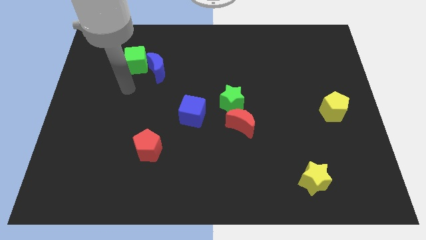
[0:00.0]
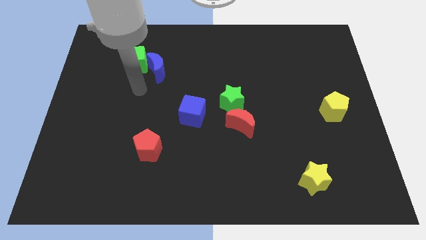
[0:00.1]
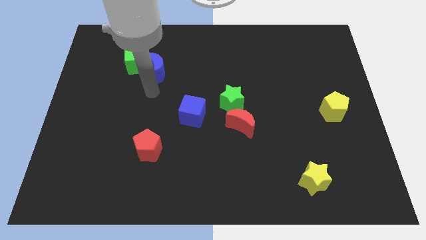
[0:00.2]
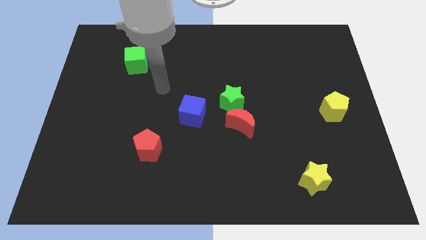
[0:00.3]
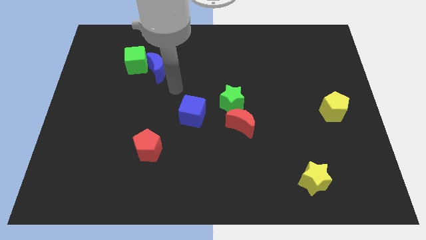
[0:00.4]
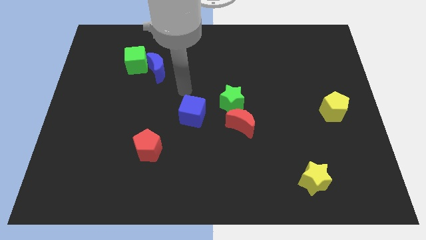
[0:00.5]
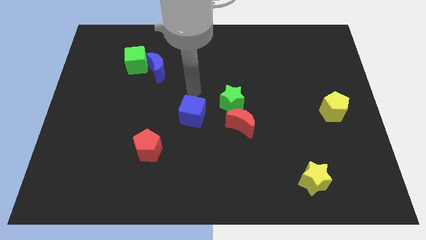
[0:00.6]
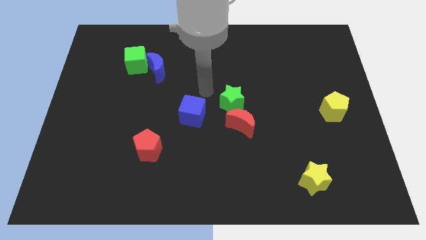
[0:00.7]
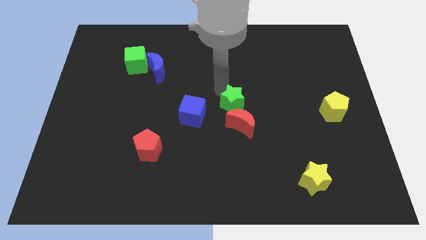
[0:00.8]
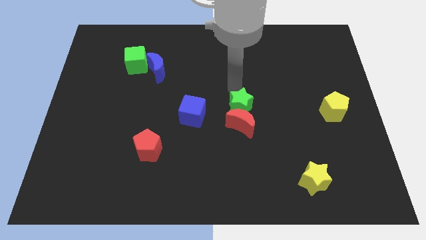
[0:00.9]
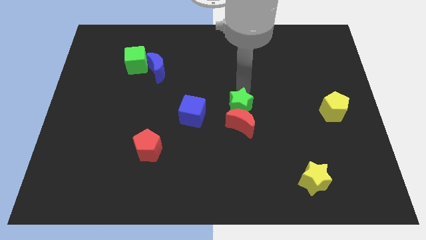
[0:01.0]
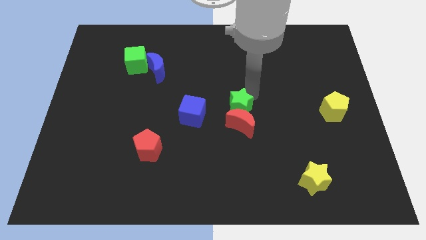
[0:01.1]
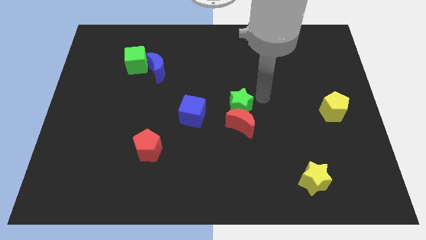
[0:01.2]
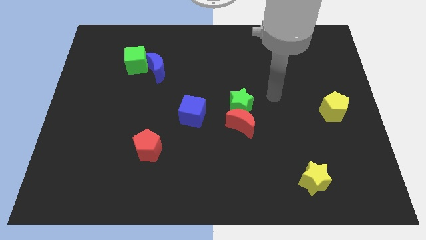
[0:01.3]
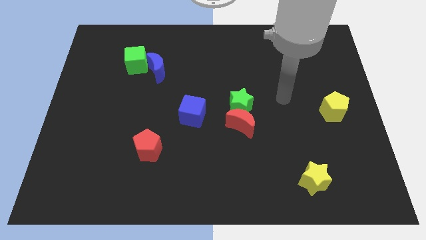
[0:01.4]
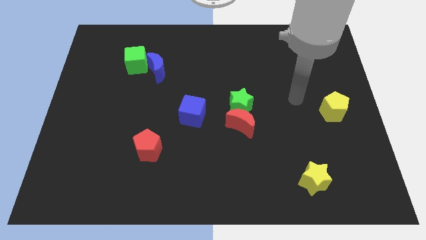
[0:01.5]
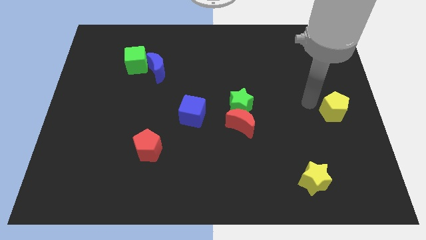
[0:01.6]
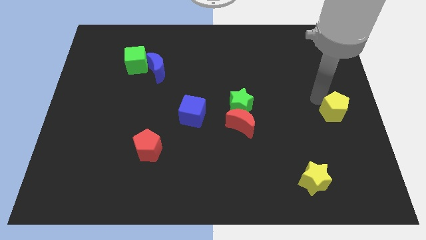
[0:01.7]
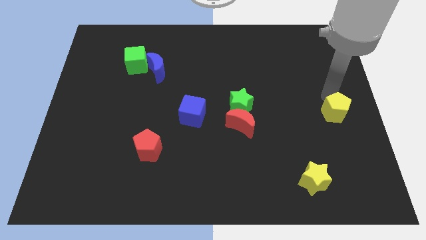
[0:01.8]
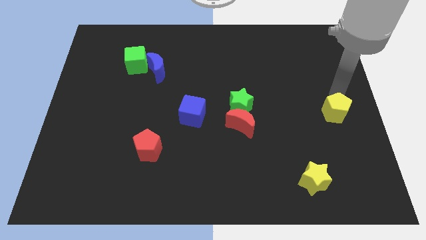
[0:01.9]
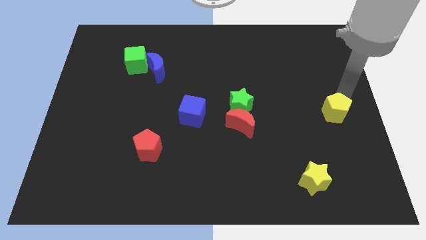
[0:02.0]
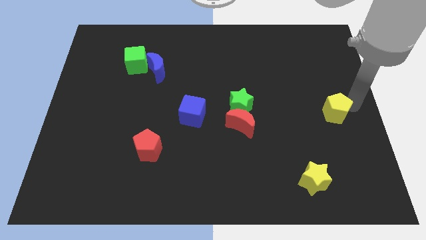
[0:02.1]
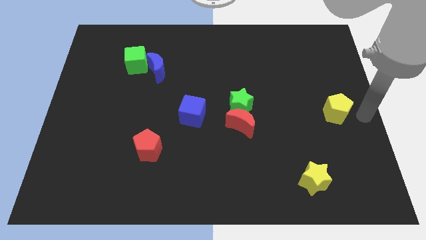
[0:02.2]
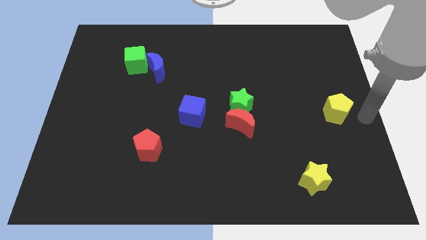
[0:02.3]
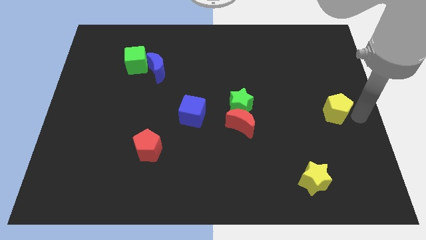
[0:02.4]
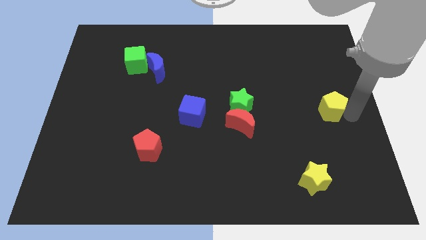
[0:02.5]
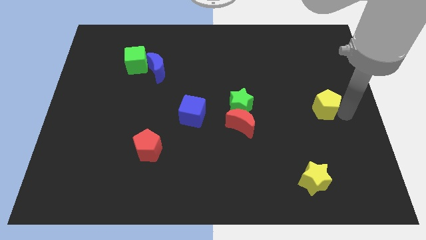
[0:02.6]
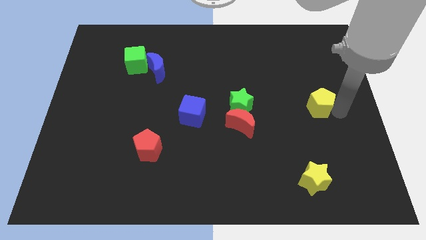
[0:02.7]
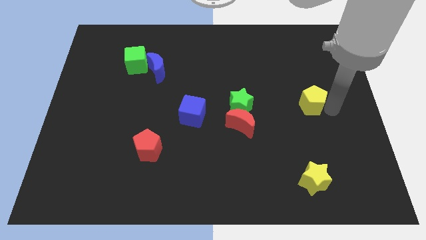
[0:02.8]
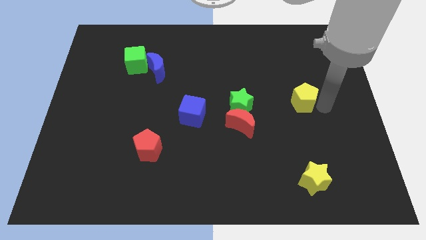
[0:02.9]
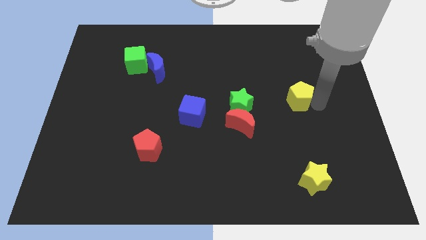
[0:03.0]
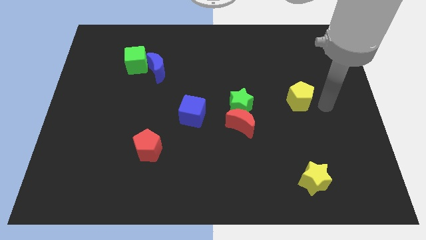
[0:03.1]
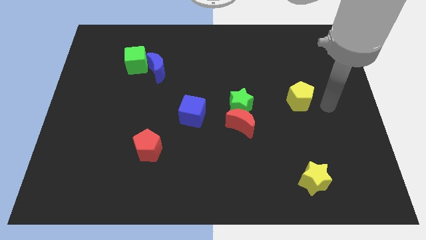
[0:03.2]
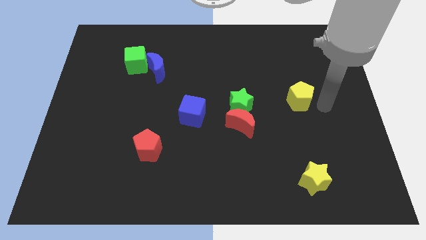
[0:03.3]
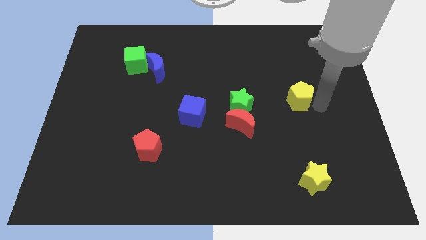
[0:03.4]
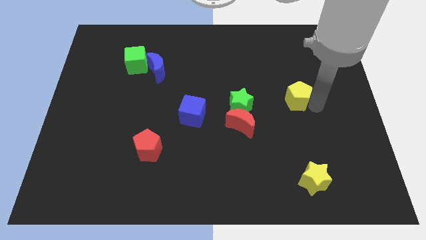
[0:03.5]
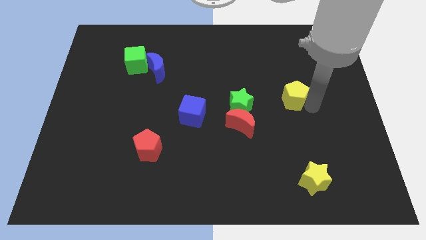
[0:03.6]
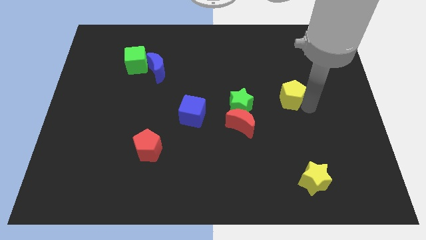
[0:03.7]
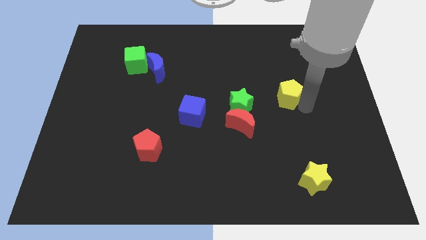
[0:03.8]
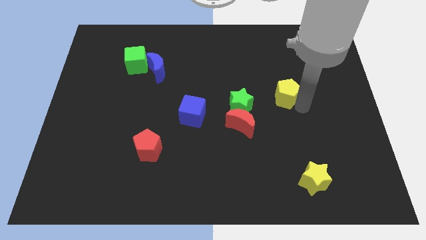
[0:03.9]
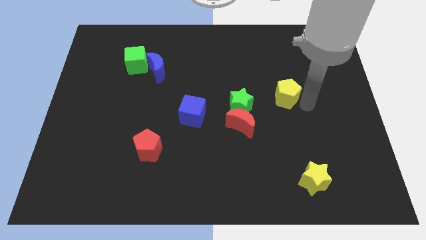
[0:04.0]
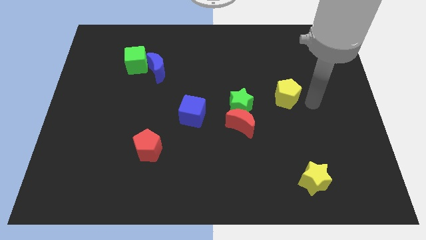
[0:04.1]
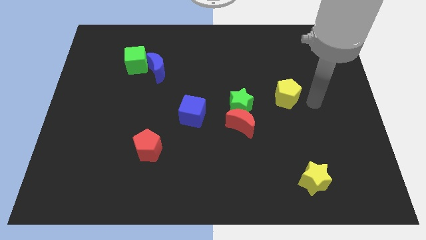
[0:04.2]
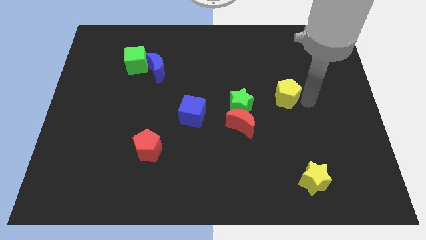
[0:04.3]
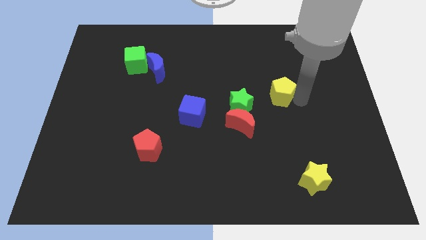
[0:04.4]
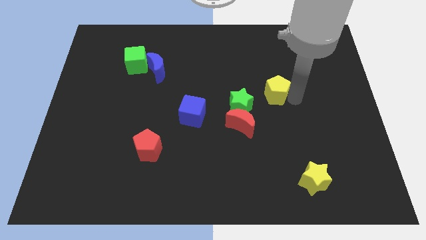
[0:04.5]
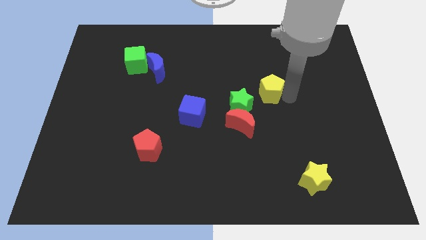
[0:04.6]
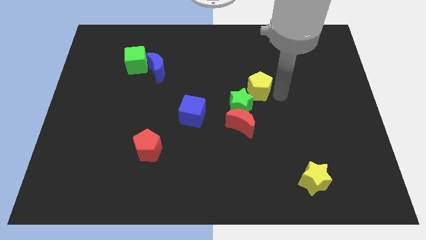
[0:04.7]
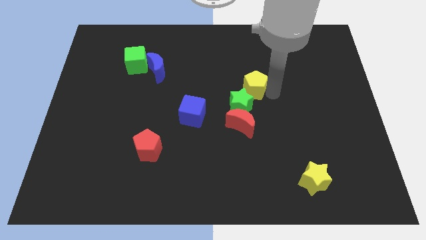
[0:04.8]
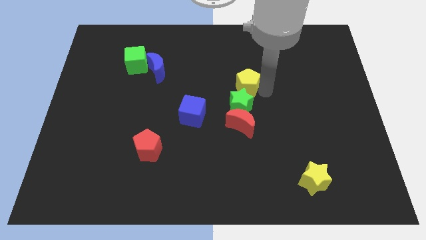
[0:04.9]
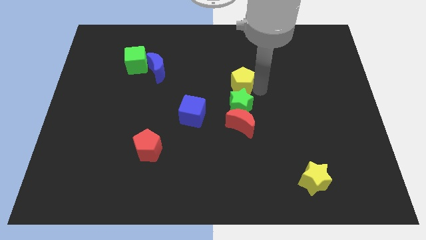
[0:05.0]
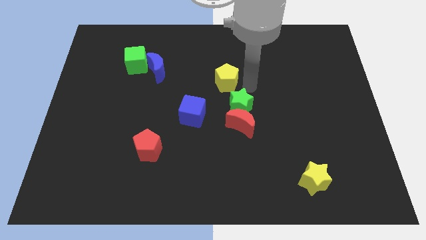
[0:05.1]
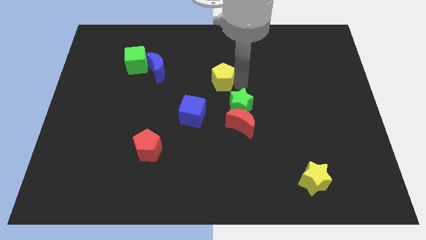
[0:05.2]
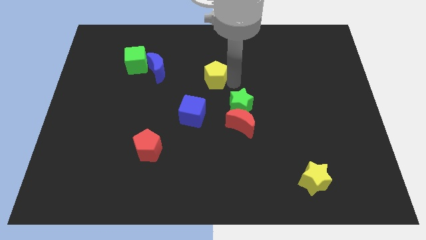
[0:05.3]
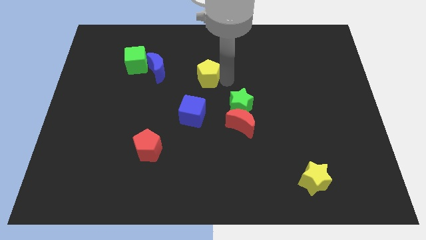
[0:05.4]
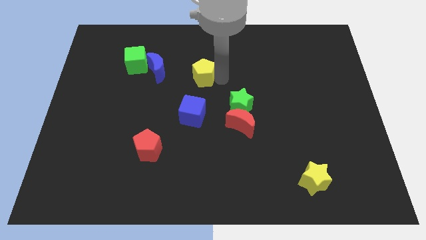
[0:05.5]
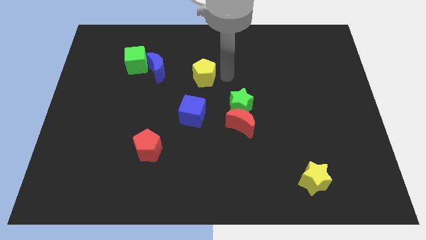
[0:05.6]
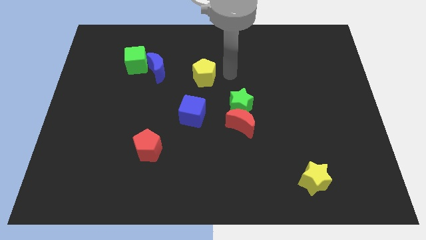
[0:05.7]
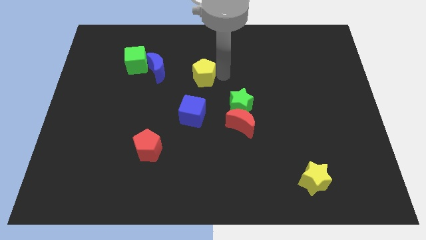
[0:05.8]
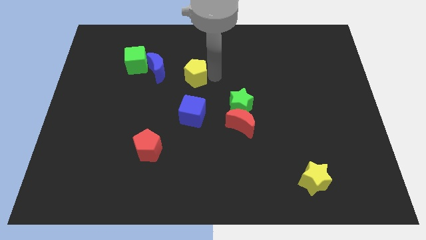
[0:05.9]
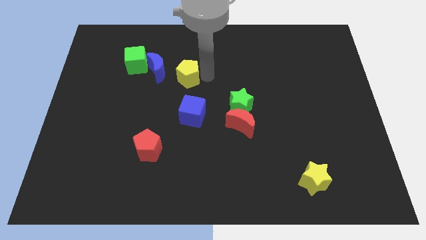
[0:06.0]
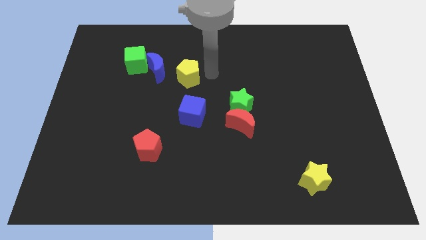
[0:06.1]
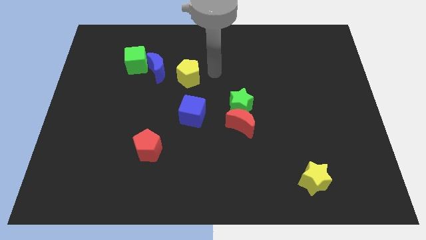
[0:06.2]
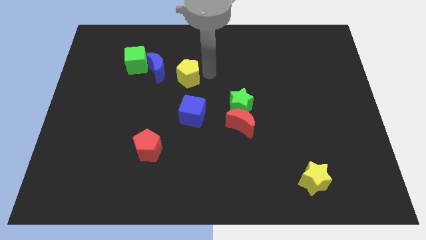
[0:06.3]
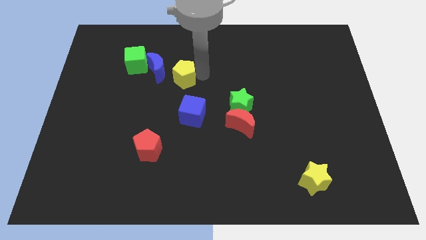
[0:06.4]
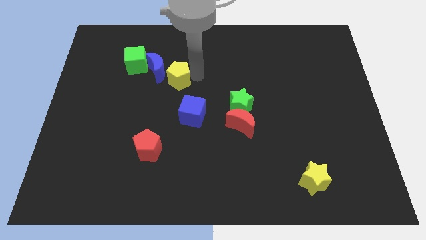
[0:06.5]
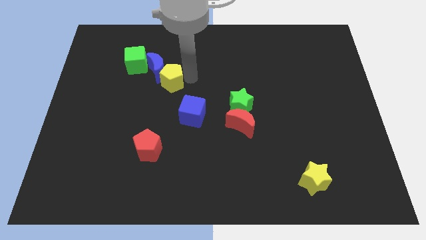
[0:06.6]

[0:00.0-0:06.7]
move the yellow pentagon to the bottom right of the green cube
